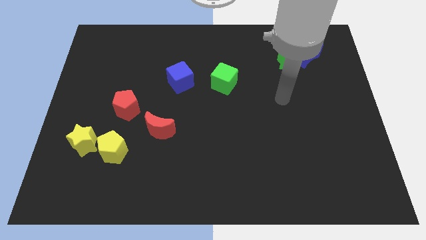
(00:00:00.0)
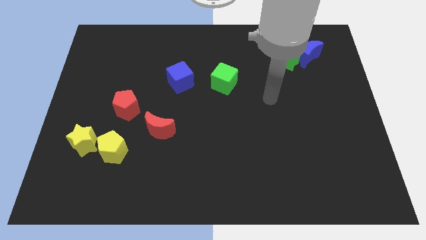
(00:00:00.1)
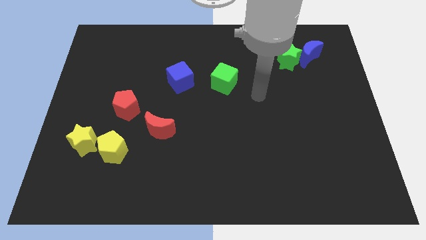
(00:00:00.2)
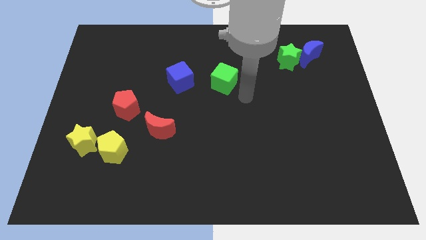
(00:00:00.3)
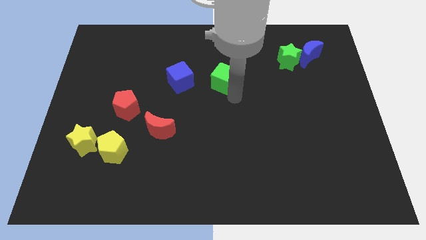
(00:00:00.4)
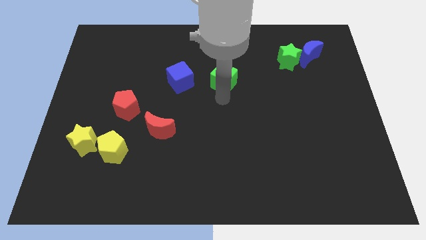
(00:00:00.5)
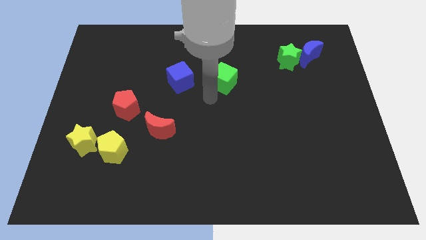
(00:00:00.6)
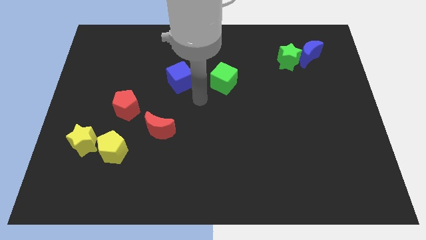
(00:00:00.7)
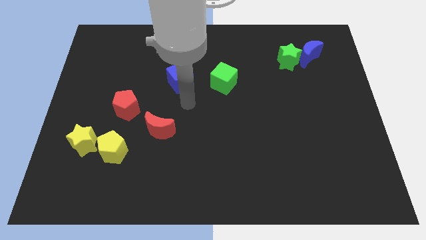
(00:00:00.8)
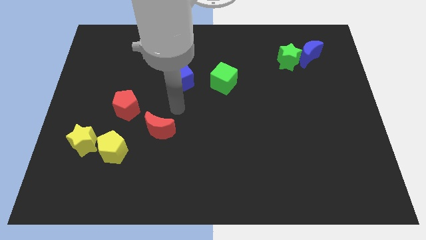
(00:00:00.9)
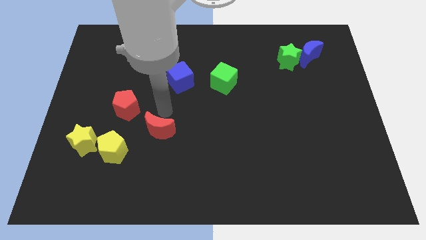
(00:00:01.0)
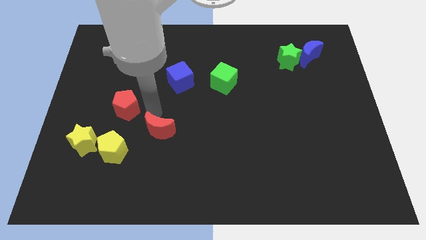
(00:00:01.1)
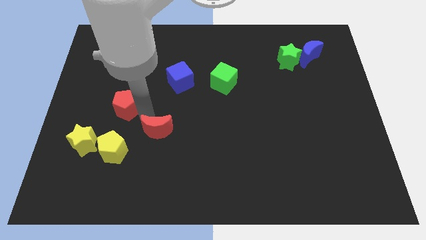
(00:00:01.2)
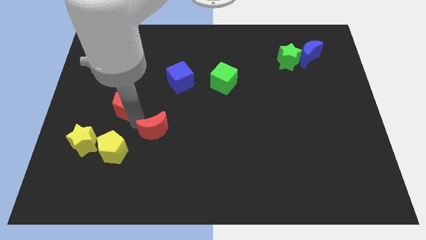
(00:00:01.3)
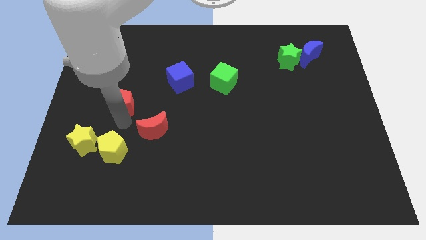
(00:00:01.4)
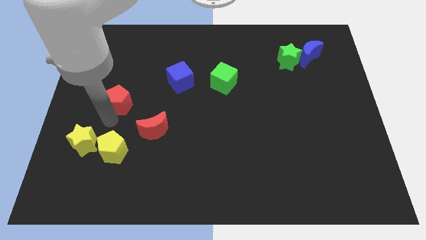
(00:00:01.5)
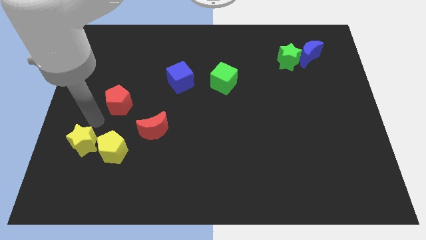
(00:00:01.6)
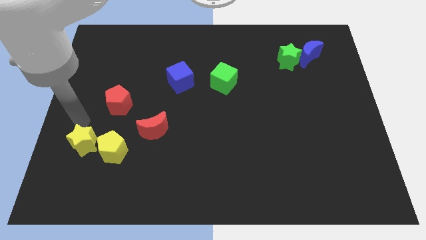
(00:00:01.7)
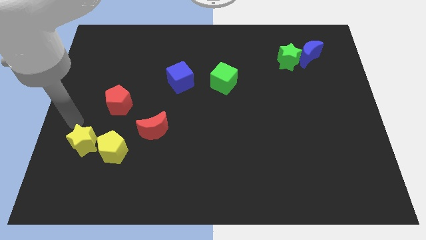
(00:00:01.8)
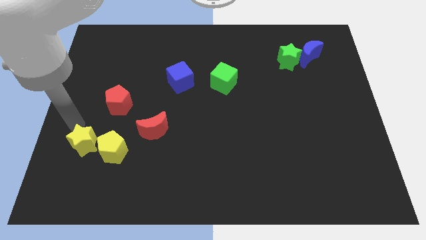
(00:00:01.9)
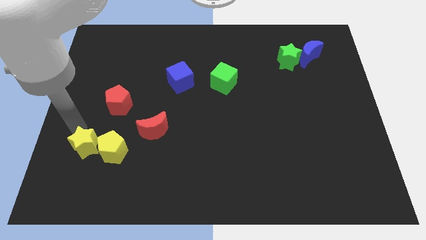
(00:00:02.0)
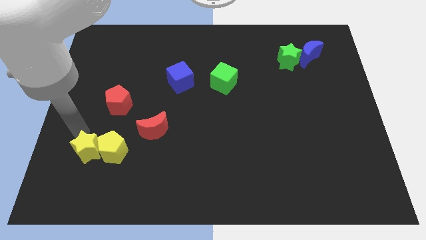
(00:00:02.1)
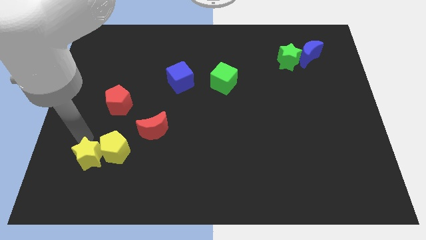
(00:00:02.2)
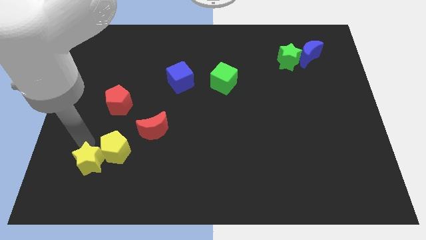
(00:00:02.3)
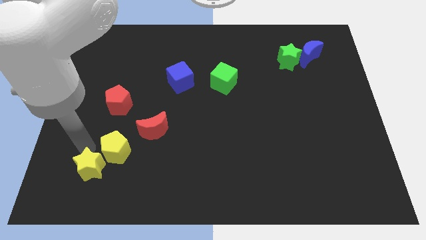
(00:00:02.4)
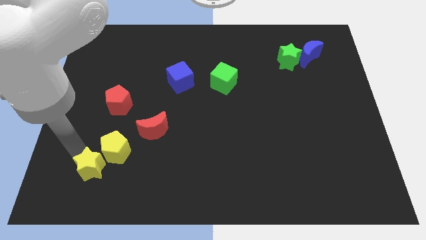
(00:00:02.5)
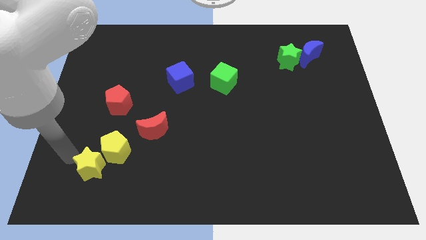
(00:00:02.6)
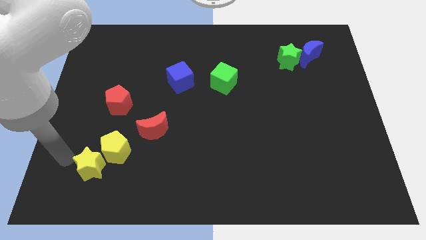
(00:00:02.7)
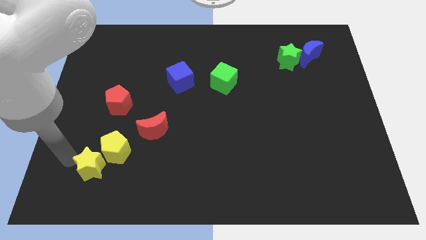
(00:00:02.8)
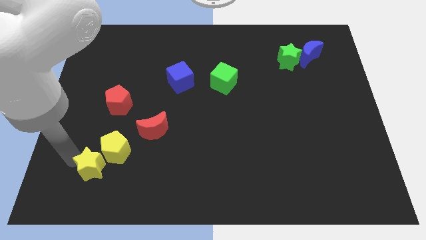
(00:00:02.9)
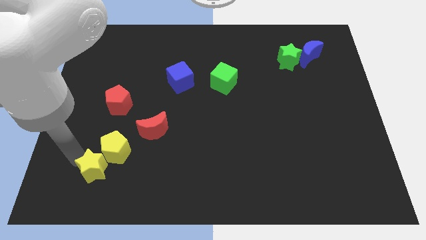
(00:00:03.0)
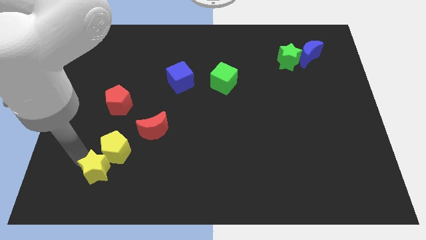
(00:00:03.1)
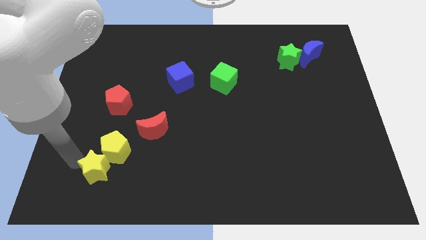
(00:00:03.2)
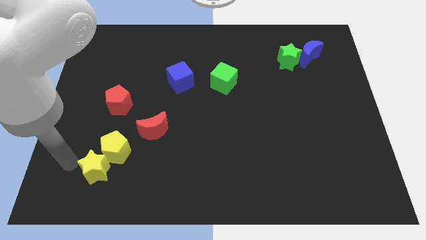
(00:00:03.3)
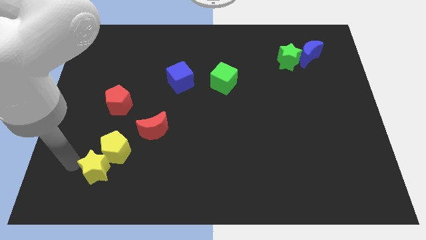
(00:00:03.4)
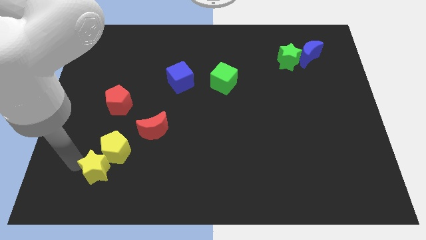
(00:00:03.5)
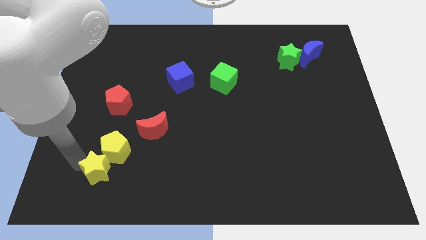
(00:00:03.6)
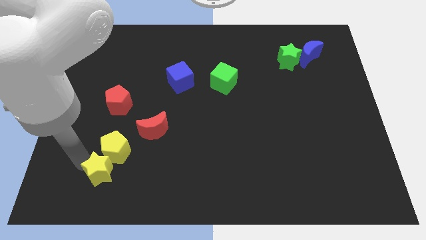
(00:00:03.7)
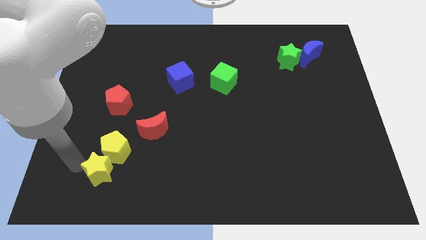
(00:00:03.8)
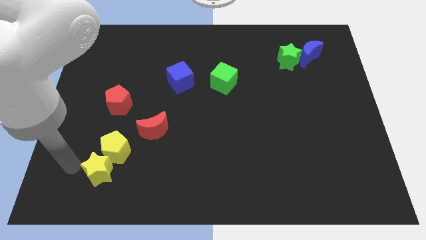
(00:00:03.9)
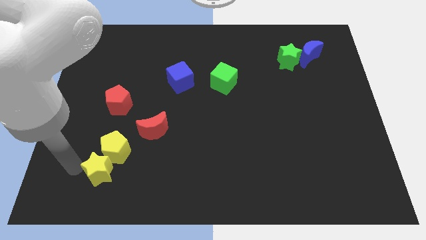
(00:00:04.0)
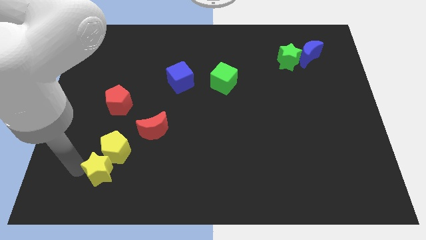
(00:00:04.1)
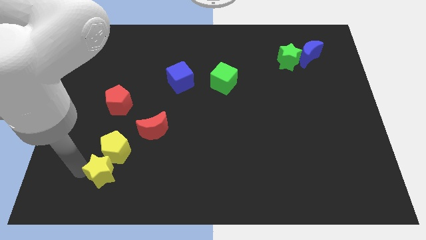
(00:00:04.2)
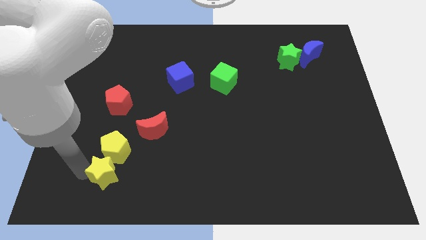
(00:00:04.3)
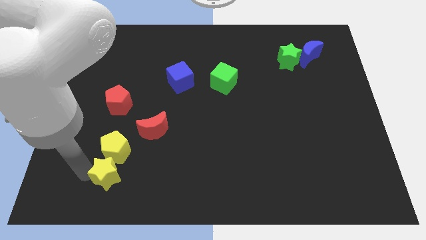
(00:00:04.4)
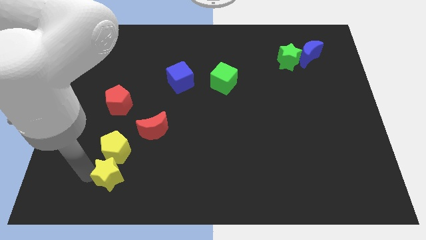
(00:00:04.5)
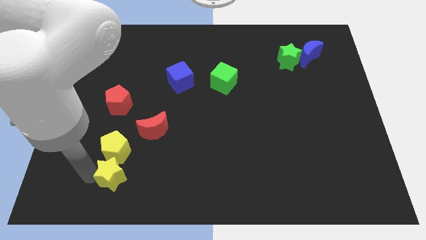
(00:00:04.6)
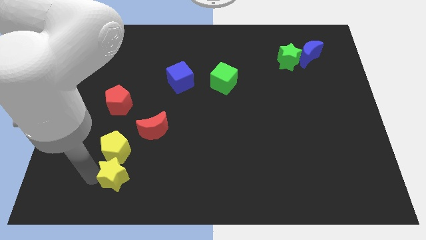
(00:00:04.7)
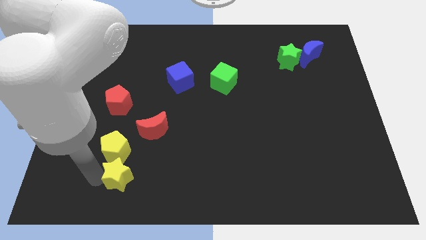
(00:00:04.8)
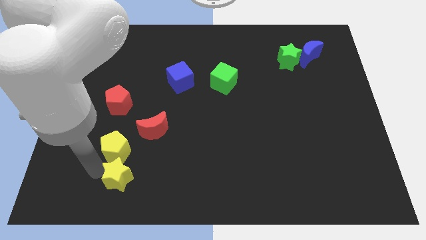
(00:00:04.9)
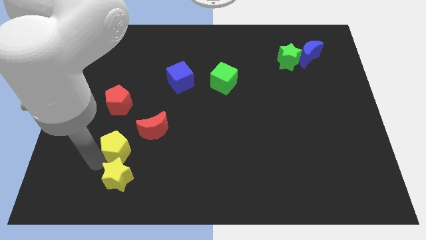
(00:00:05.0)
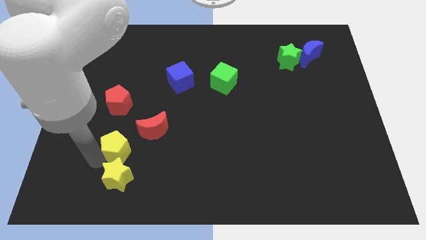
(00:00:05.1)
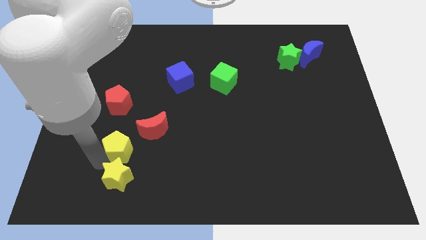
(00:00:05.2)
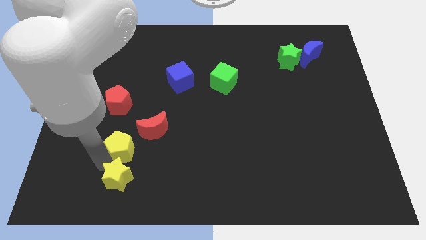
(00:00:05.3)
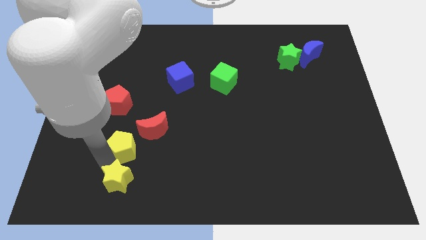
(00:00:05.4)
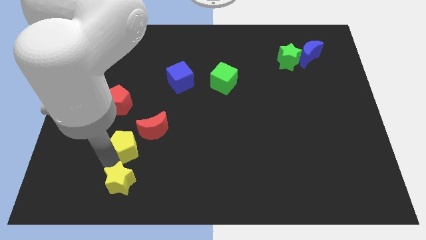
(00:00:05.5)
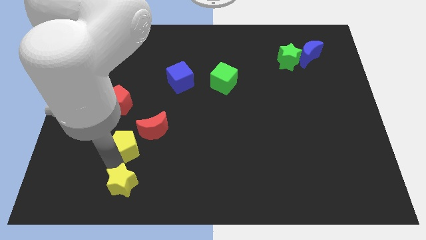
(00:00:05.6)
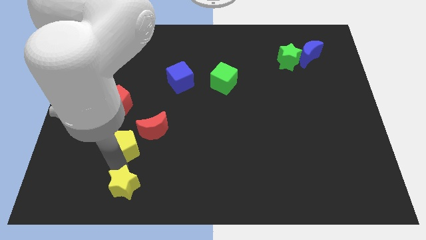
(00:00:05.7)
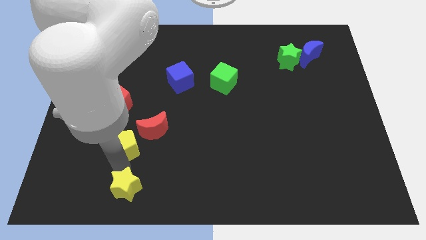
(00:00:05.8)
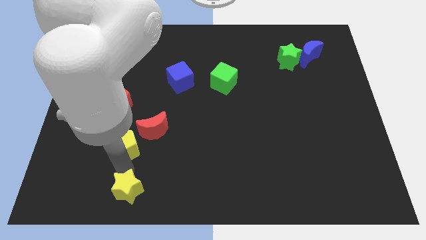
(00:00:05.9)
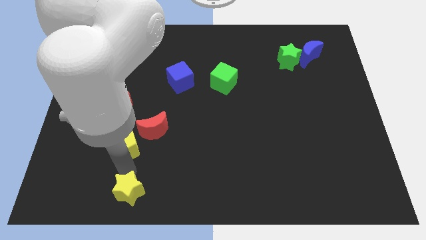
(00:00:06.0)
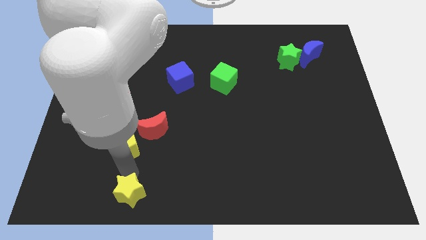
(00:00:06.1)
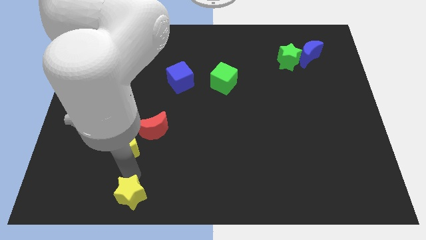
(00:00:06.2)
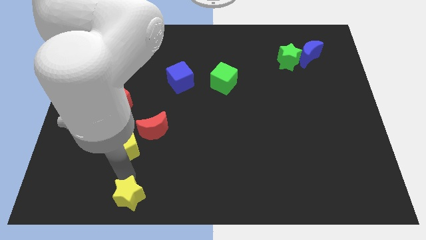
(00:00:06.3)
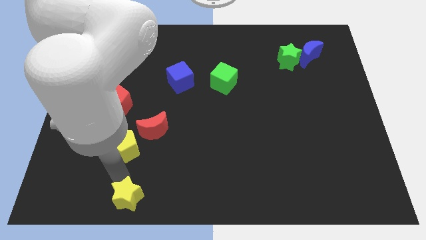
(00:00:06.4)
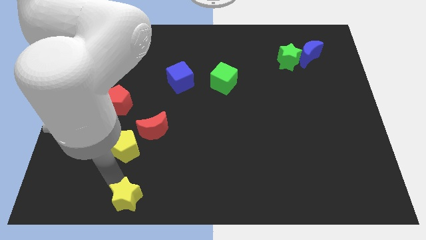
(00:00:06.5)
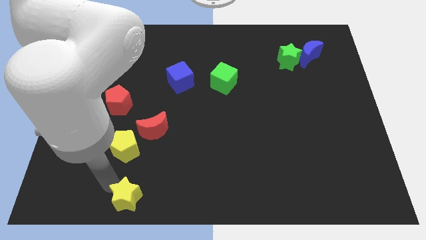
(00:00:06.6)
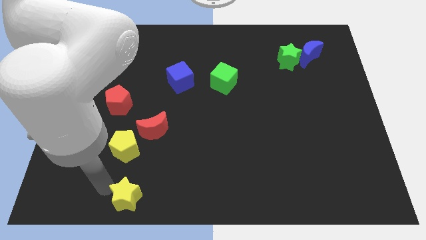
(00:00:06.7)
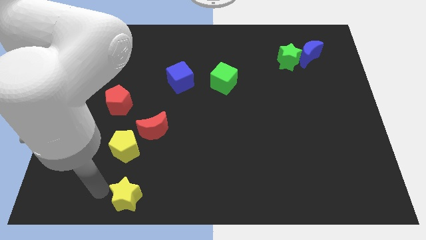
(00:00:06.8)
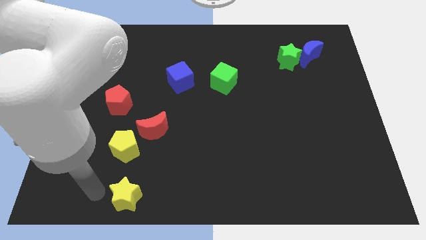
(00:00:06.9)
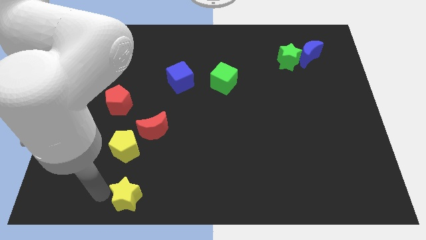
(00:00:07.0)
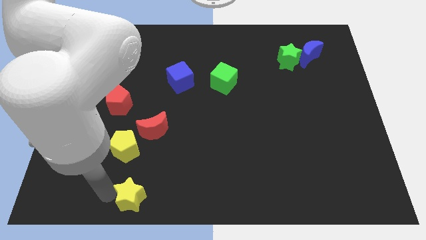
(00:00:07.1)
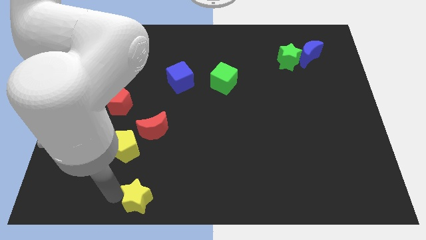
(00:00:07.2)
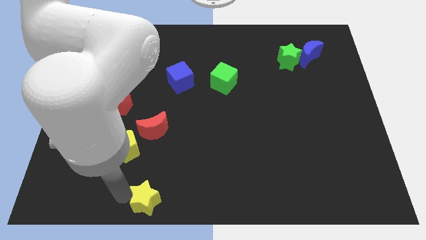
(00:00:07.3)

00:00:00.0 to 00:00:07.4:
slide the yellow star to the bottom side
